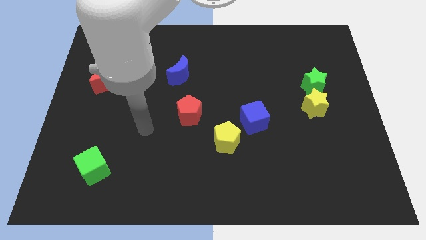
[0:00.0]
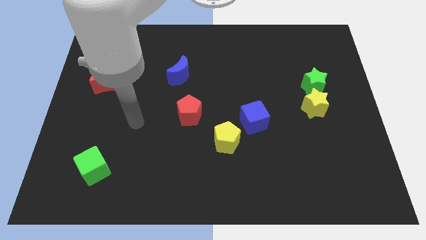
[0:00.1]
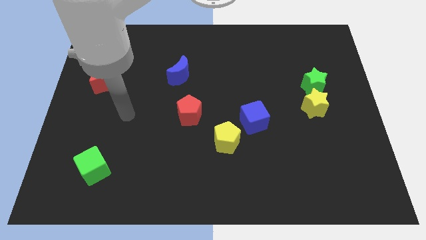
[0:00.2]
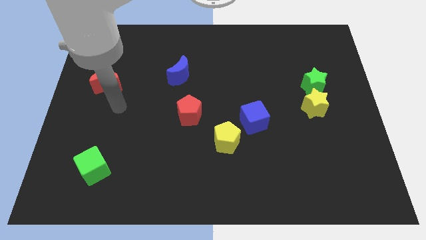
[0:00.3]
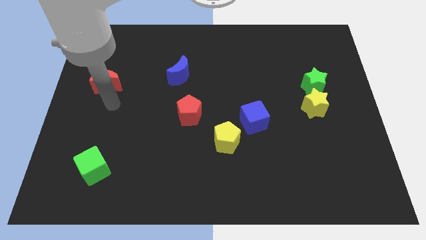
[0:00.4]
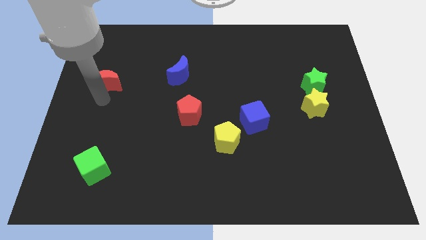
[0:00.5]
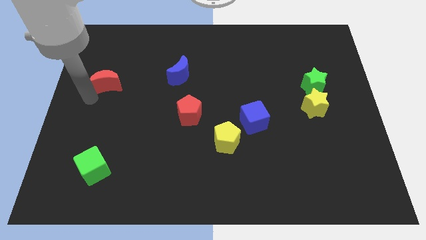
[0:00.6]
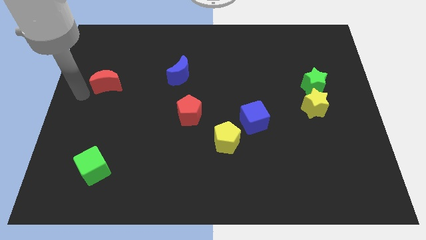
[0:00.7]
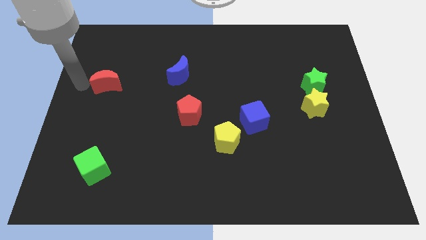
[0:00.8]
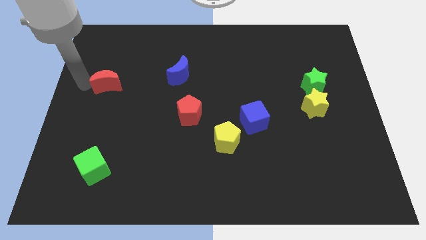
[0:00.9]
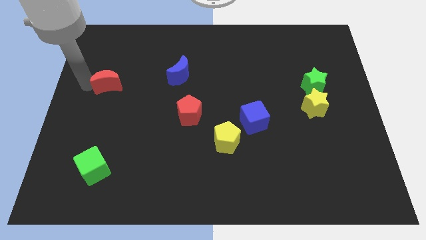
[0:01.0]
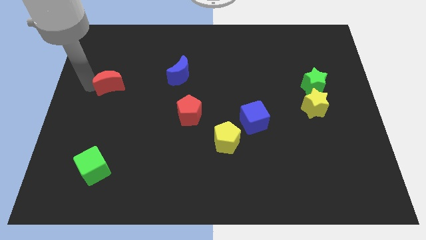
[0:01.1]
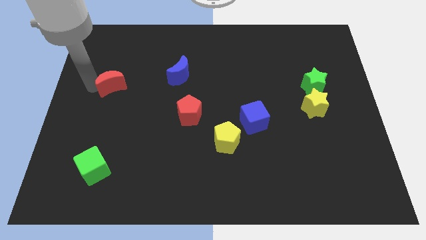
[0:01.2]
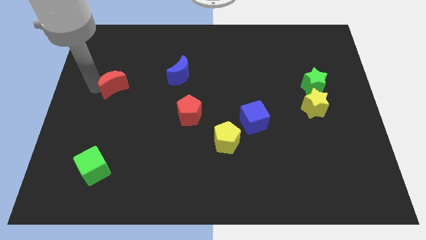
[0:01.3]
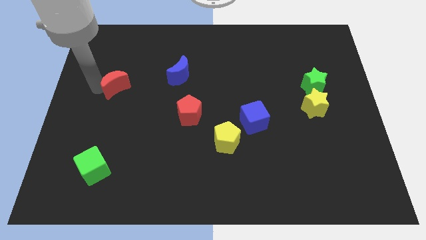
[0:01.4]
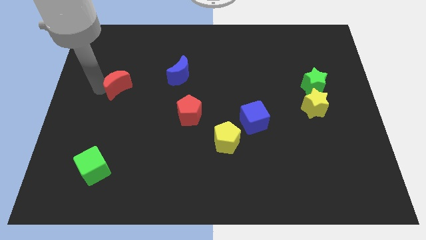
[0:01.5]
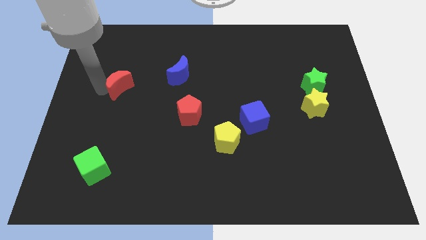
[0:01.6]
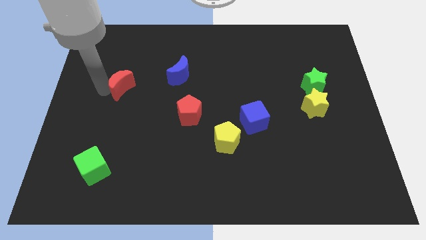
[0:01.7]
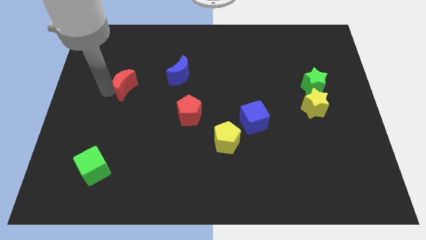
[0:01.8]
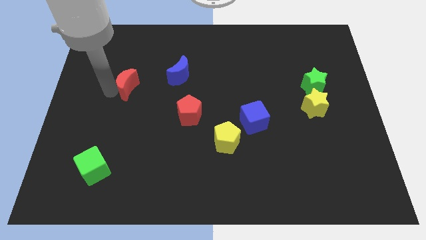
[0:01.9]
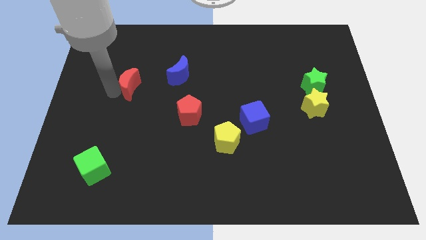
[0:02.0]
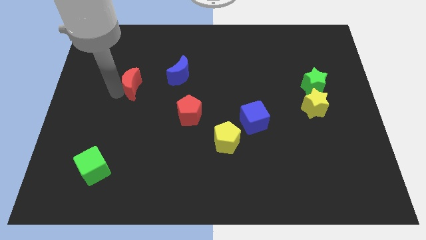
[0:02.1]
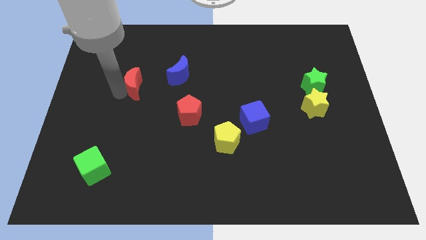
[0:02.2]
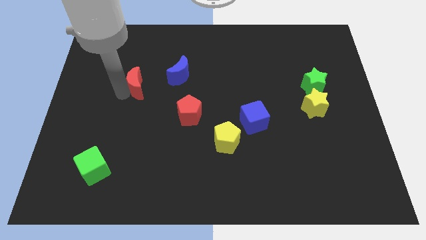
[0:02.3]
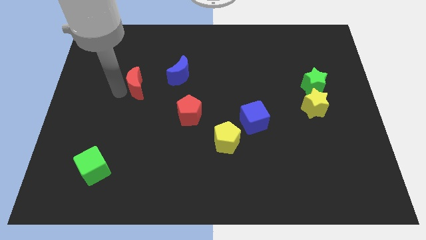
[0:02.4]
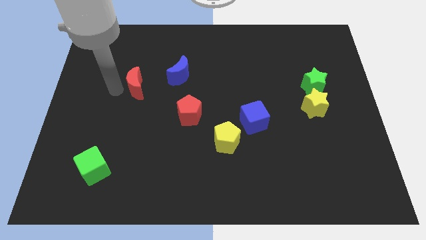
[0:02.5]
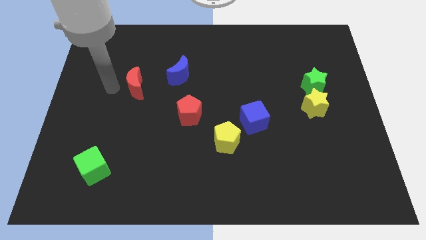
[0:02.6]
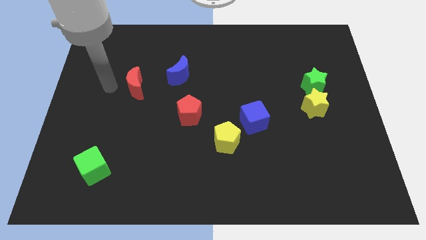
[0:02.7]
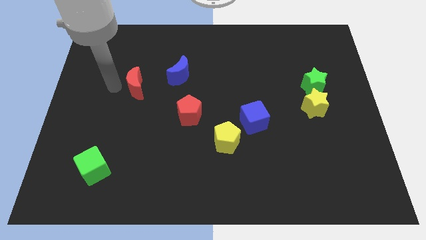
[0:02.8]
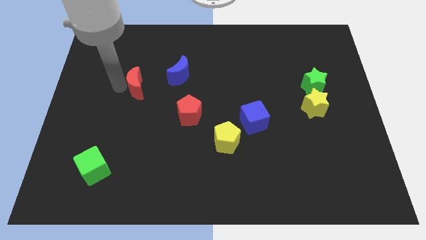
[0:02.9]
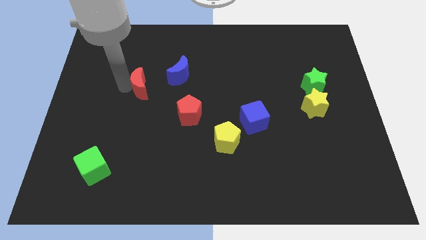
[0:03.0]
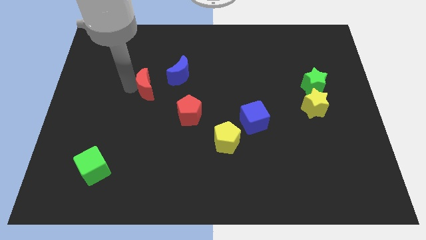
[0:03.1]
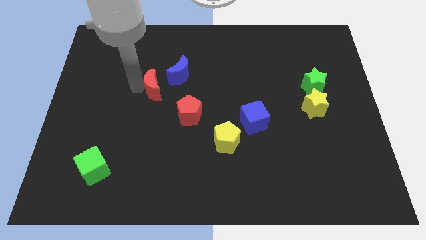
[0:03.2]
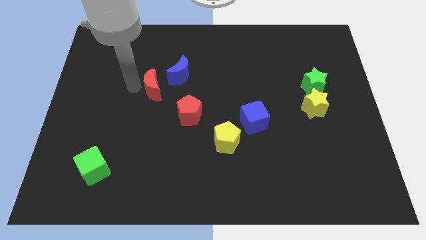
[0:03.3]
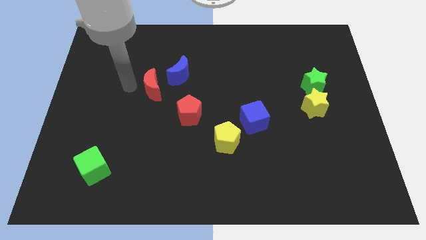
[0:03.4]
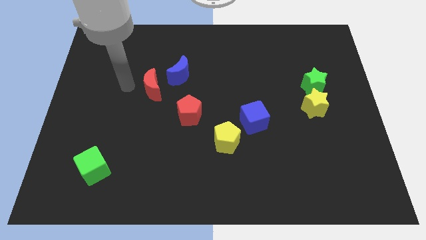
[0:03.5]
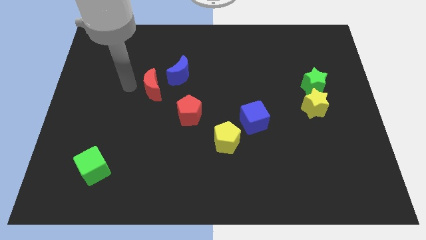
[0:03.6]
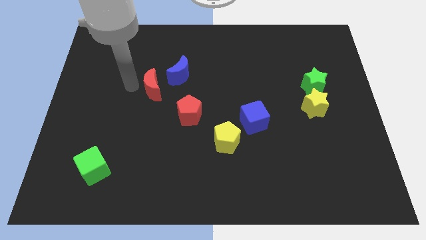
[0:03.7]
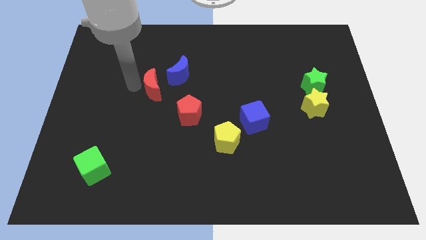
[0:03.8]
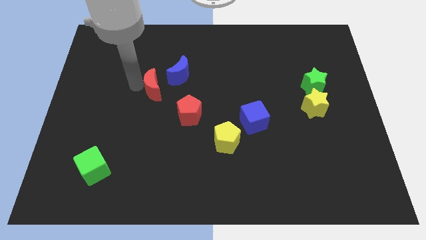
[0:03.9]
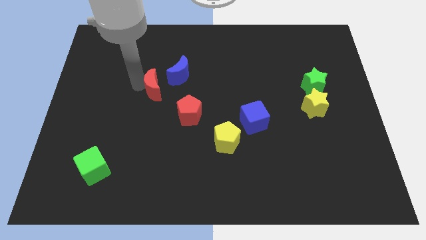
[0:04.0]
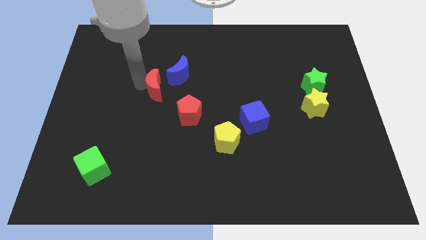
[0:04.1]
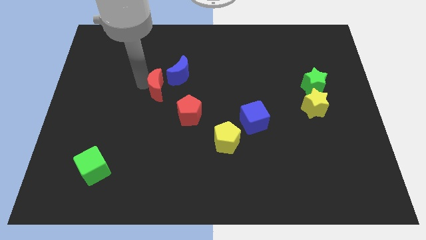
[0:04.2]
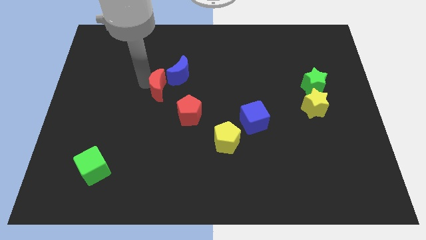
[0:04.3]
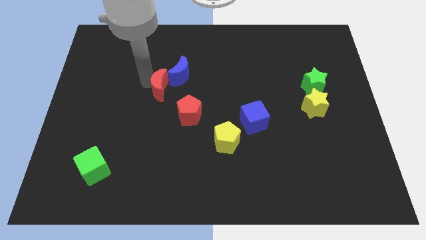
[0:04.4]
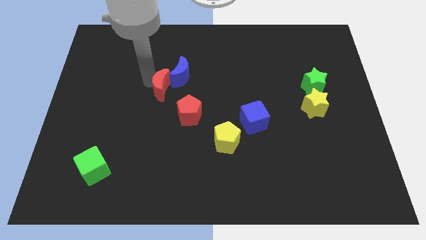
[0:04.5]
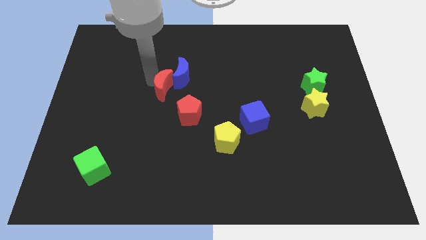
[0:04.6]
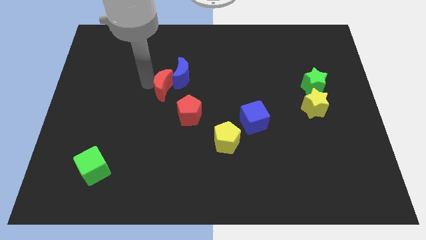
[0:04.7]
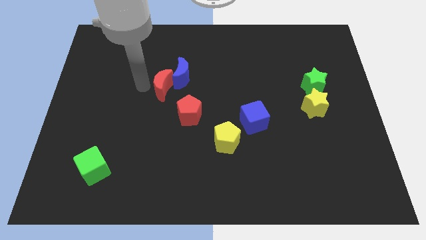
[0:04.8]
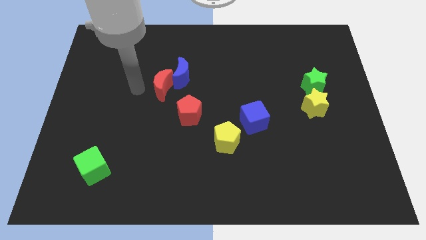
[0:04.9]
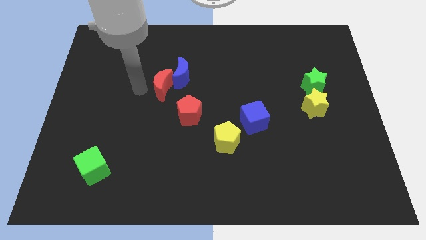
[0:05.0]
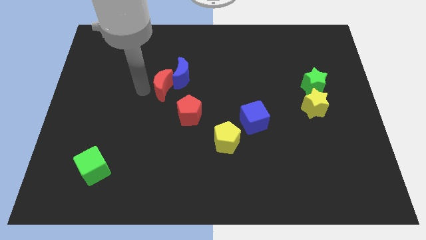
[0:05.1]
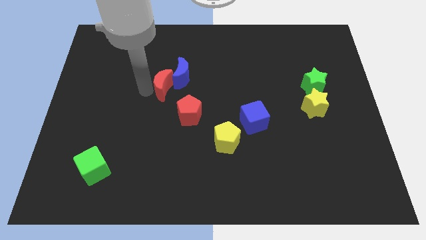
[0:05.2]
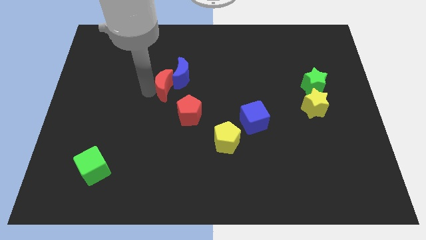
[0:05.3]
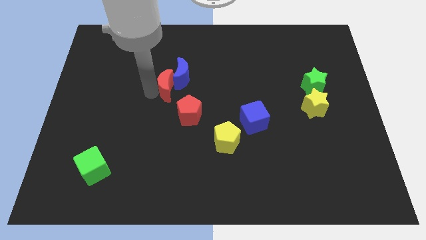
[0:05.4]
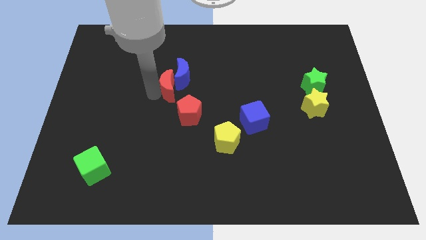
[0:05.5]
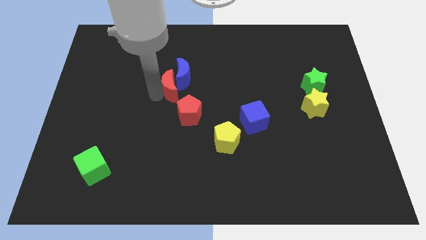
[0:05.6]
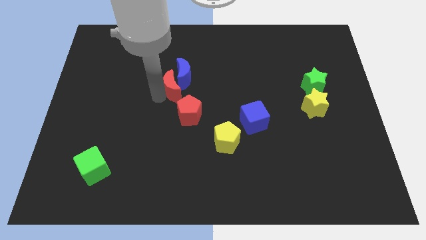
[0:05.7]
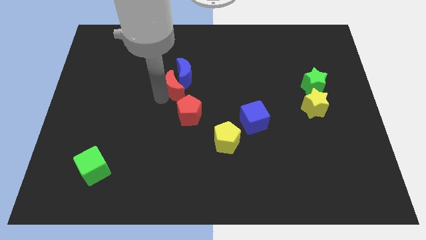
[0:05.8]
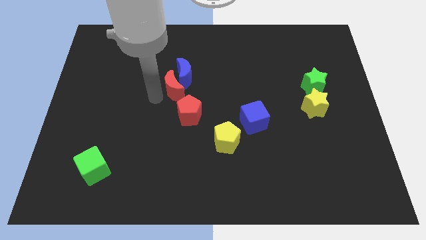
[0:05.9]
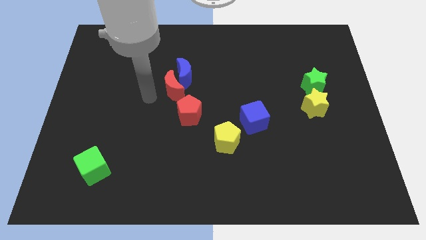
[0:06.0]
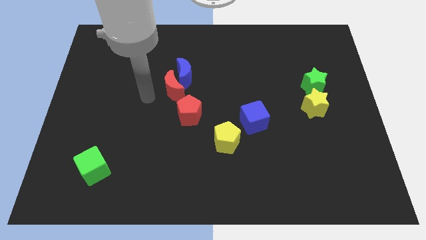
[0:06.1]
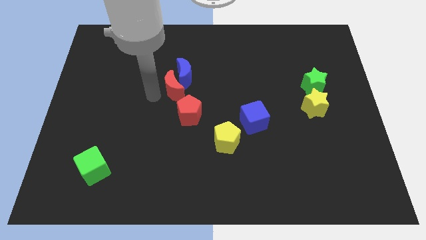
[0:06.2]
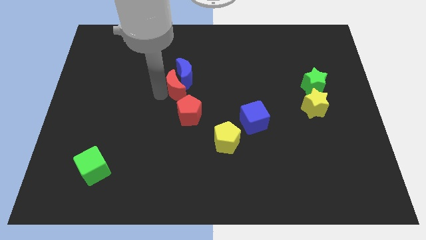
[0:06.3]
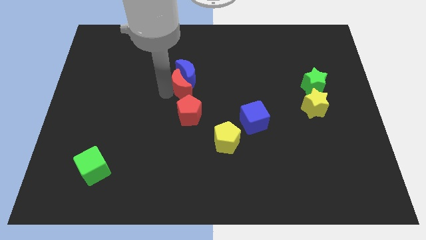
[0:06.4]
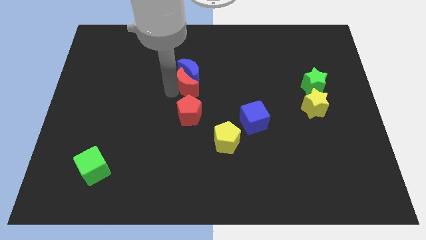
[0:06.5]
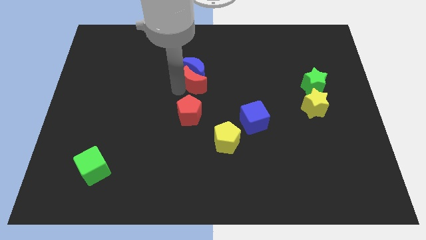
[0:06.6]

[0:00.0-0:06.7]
push the red moon right

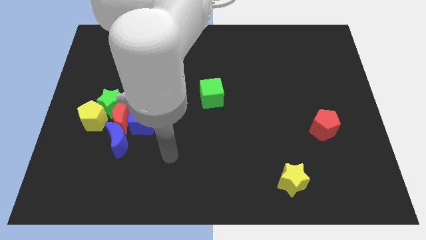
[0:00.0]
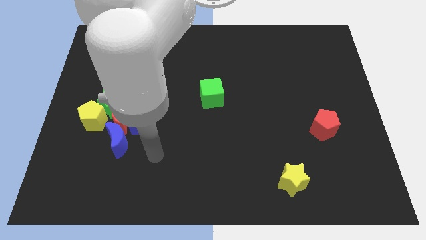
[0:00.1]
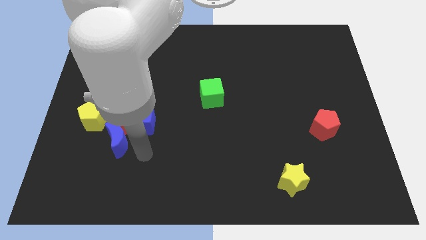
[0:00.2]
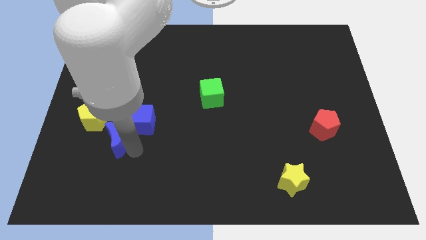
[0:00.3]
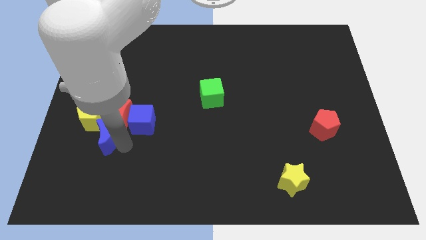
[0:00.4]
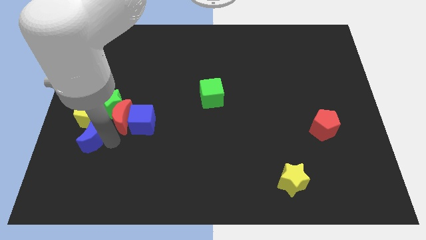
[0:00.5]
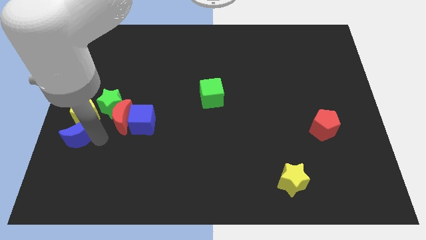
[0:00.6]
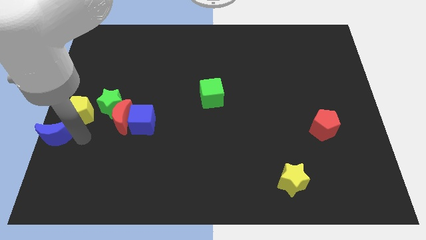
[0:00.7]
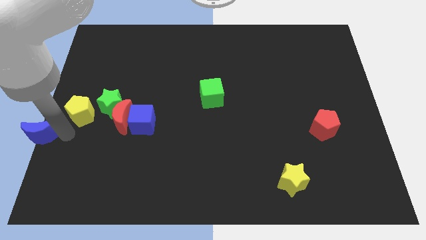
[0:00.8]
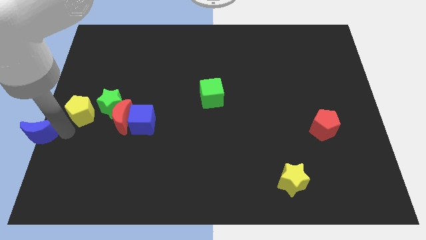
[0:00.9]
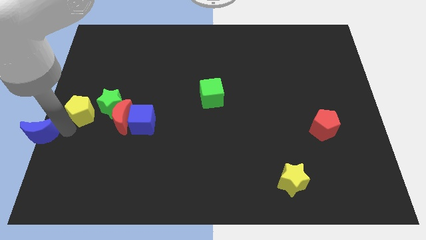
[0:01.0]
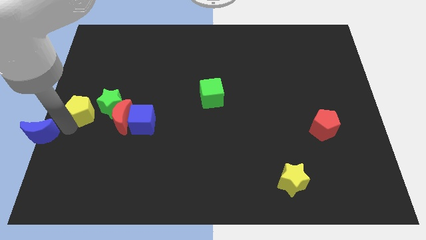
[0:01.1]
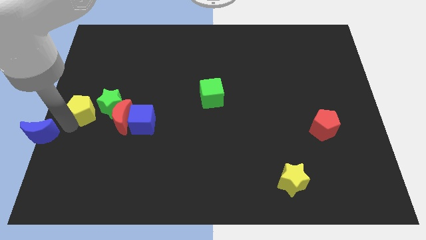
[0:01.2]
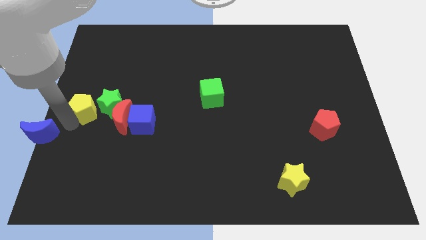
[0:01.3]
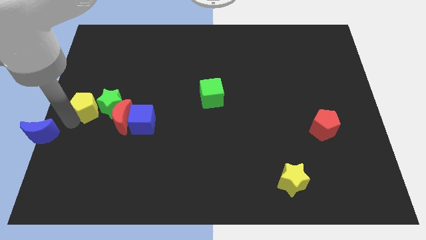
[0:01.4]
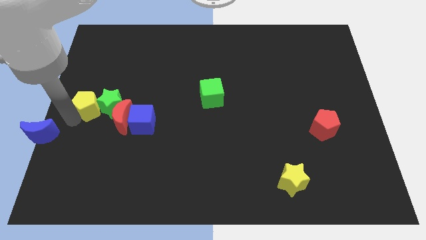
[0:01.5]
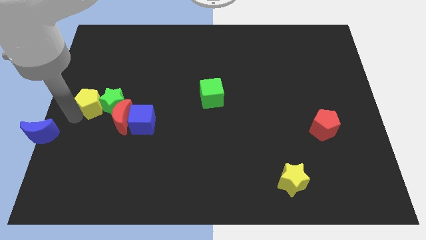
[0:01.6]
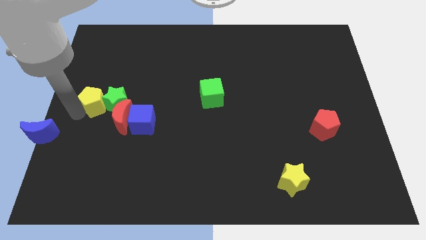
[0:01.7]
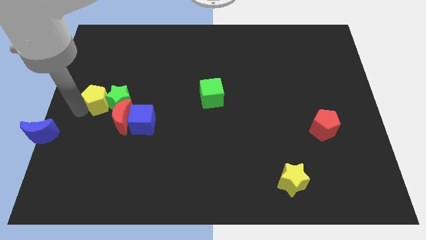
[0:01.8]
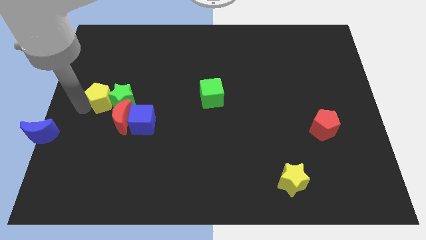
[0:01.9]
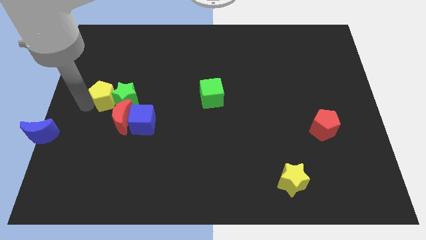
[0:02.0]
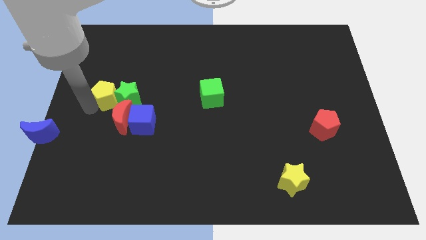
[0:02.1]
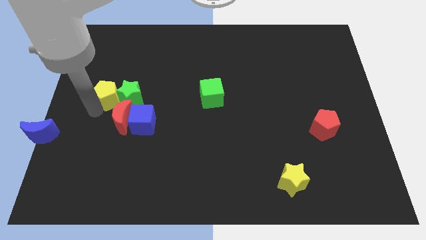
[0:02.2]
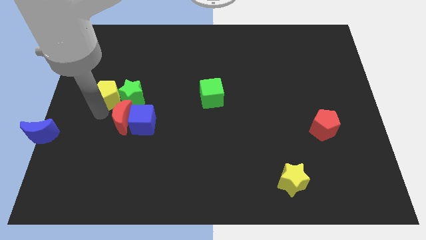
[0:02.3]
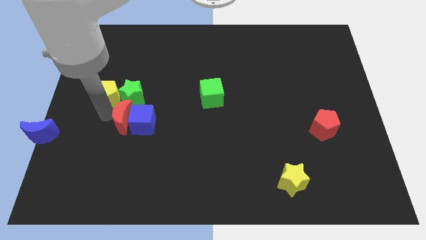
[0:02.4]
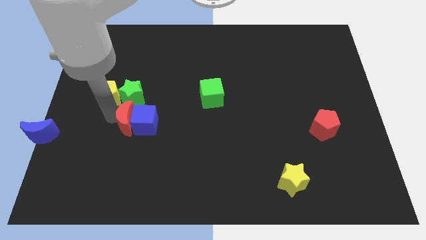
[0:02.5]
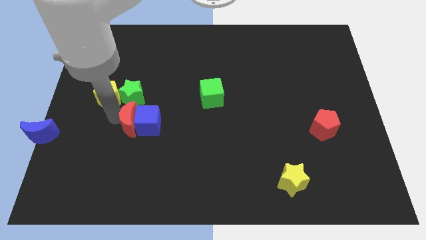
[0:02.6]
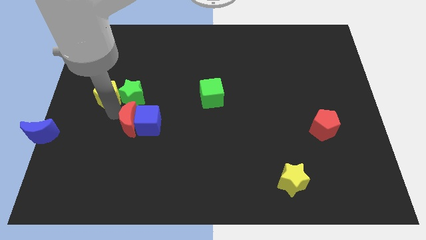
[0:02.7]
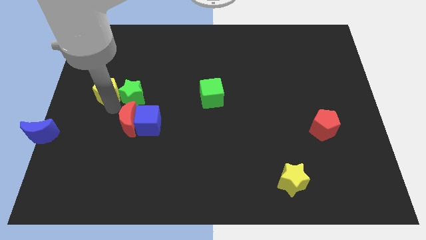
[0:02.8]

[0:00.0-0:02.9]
slightly push the yellow pentagon up
